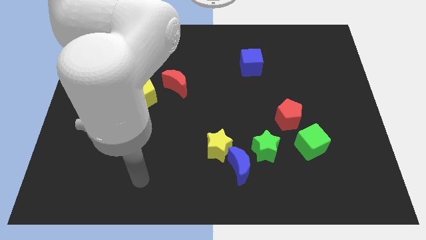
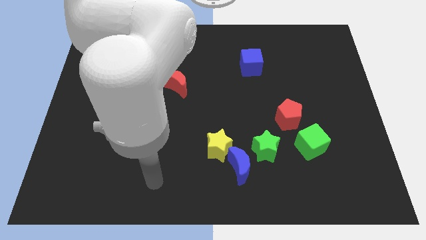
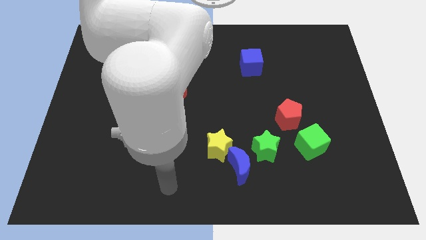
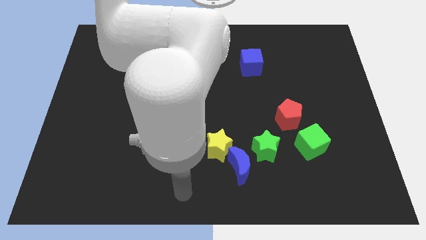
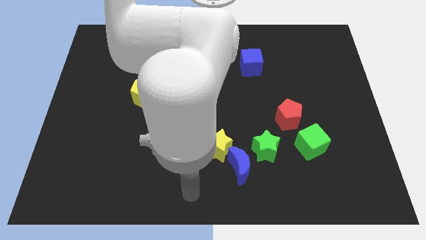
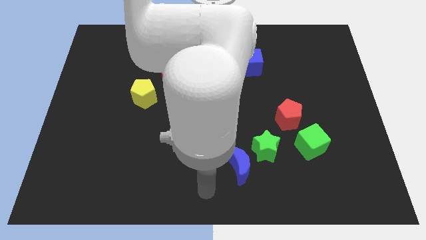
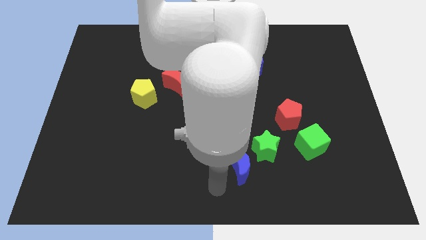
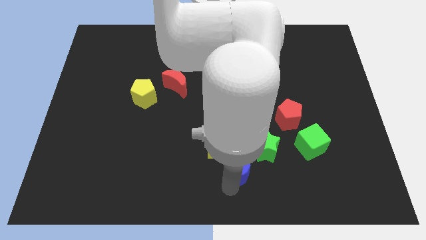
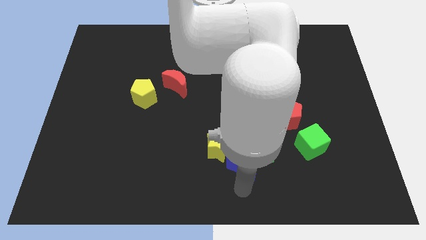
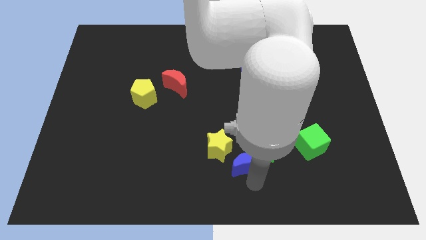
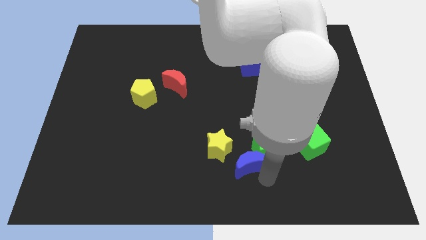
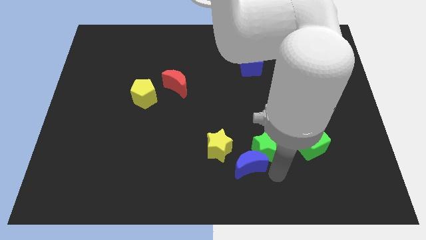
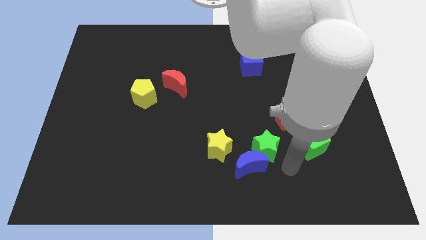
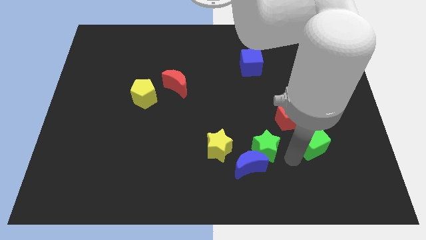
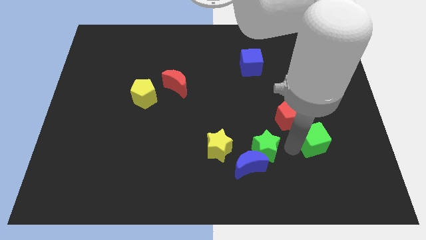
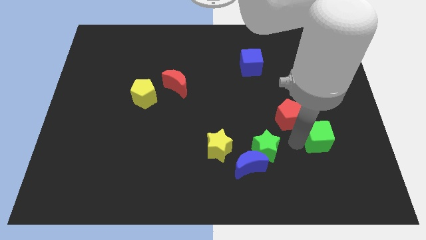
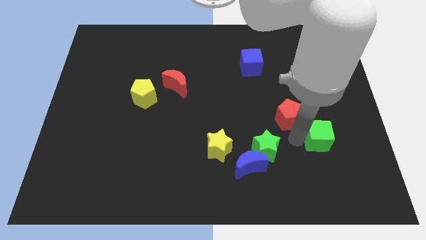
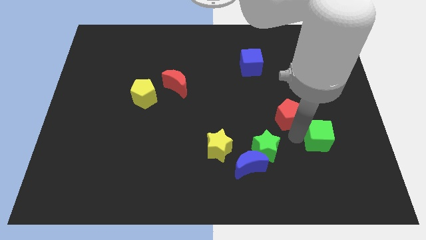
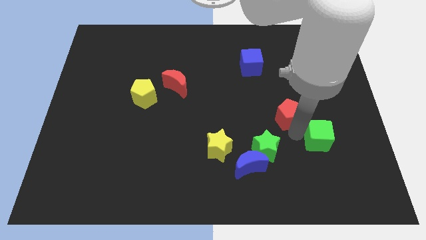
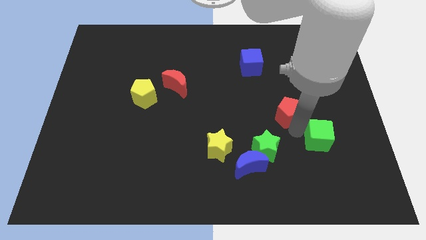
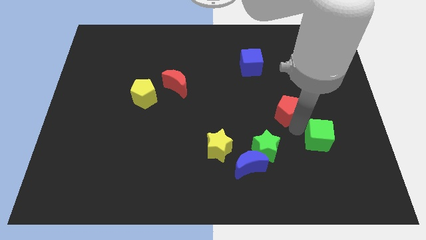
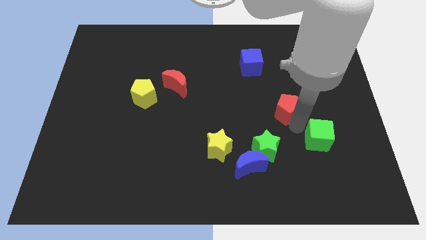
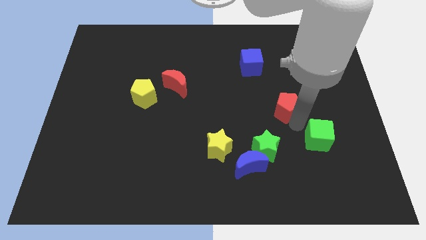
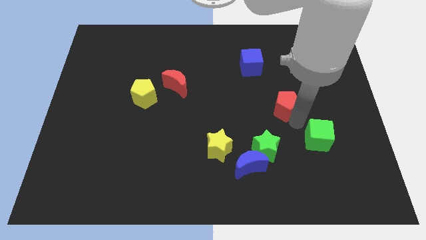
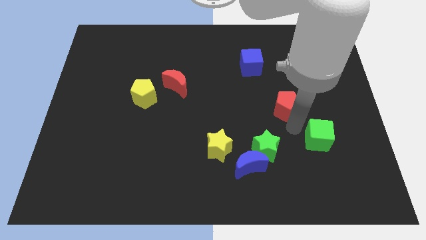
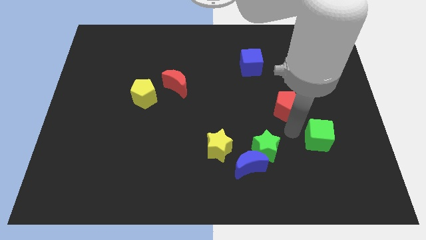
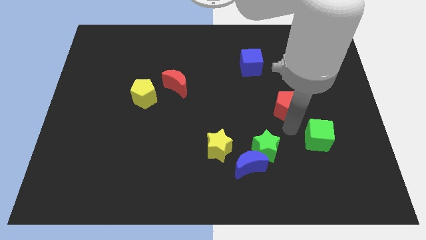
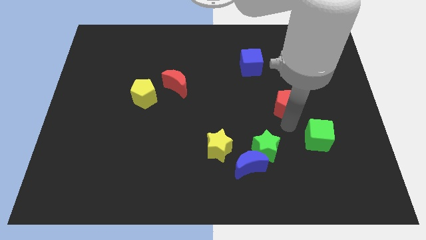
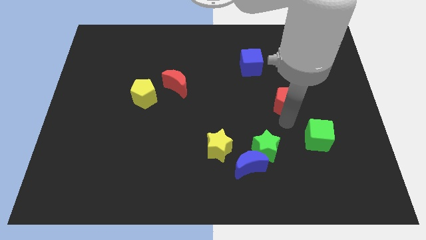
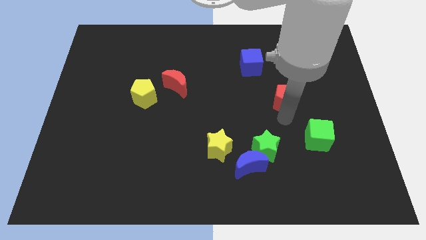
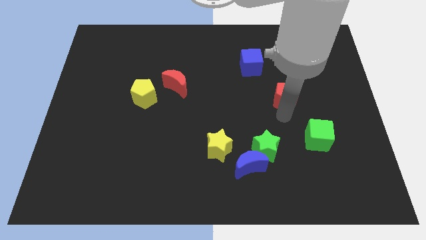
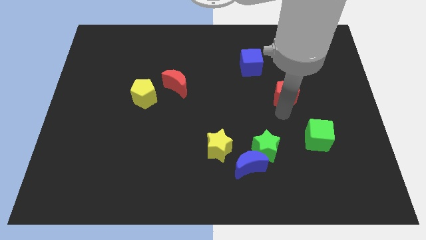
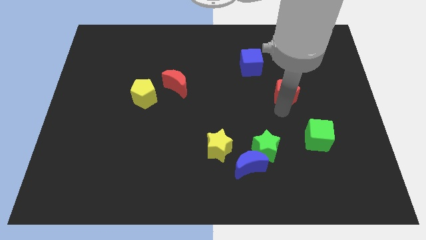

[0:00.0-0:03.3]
slightly slide the red pentagon upwards

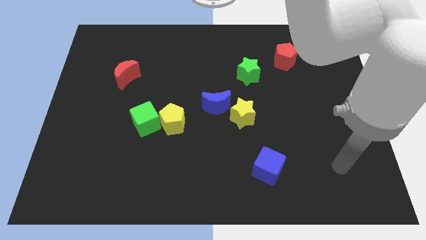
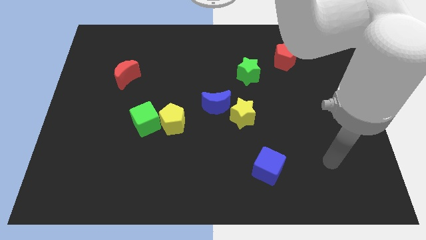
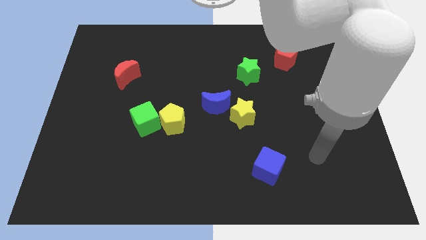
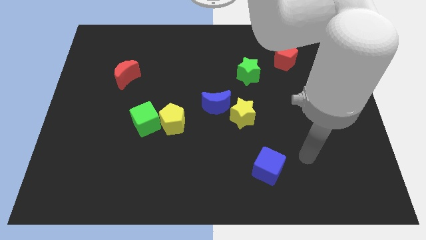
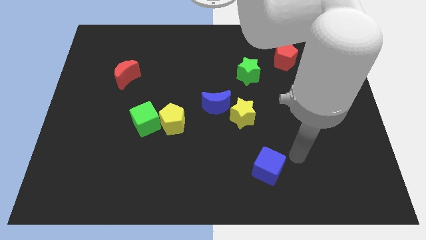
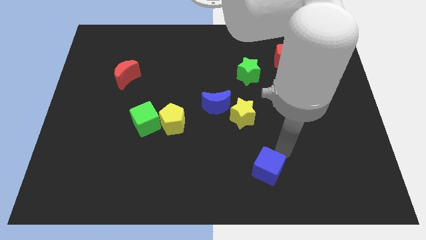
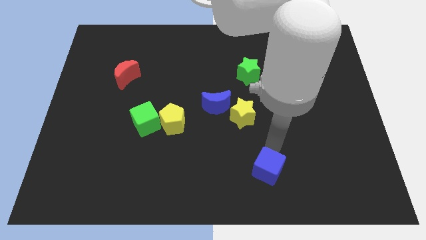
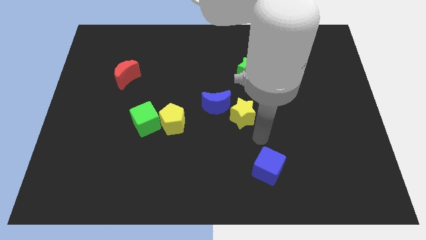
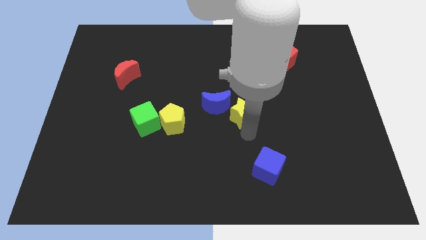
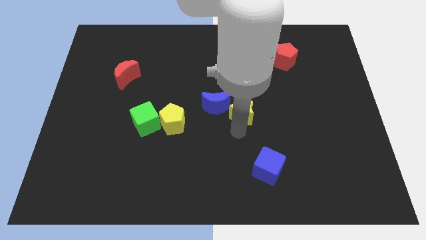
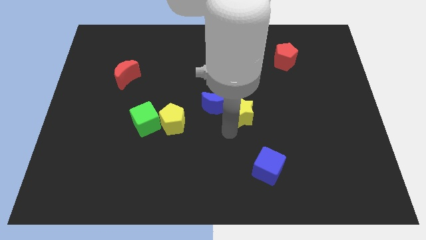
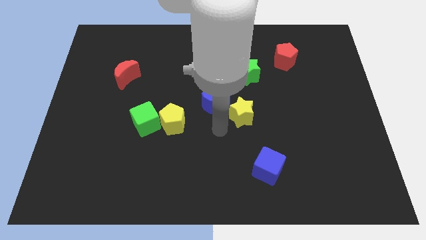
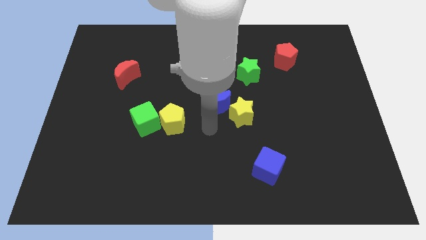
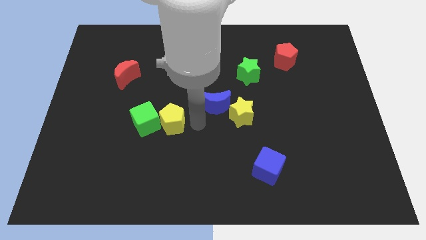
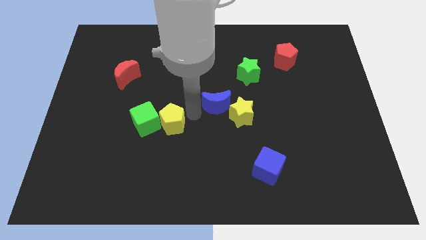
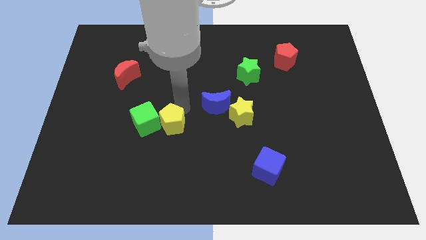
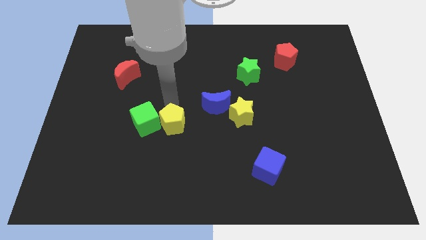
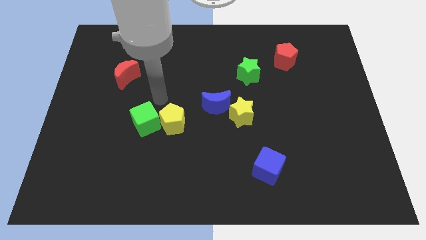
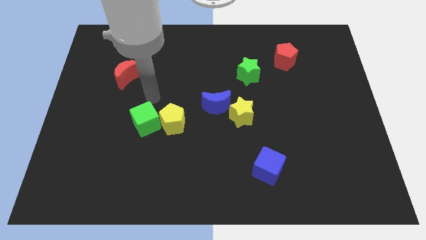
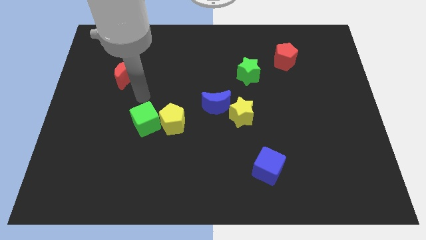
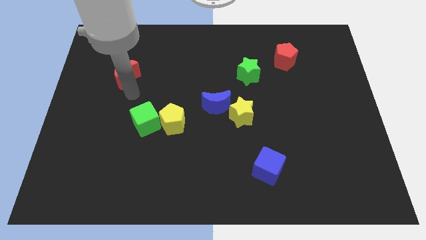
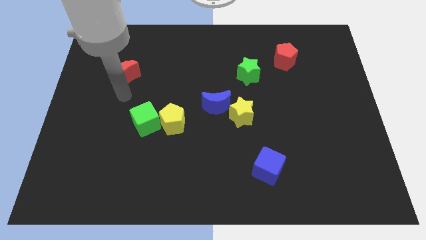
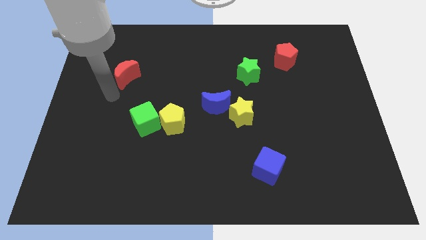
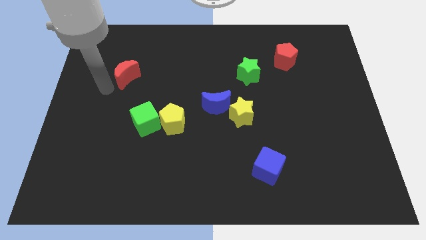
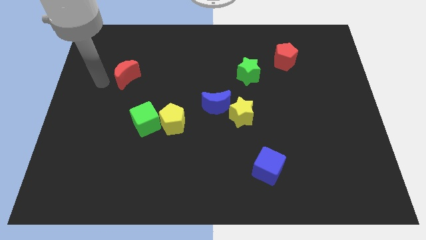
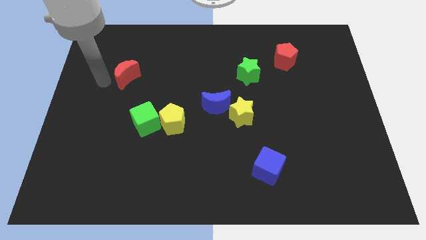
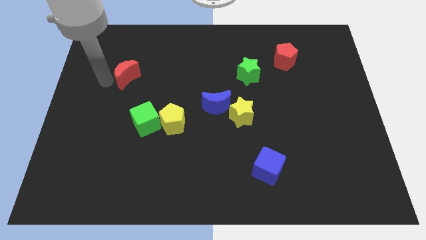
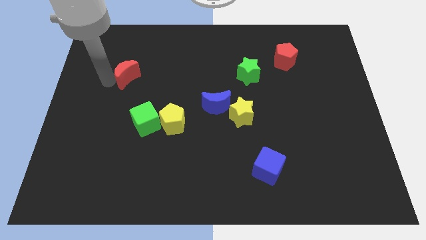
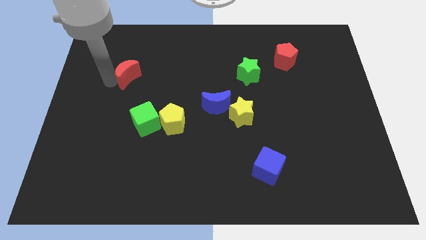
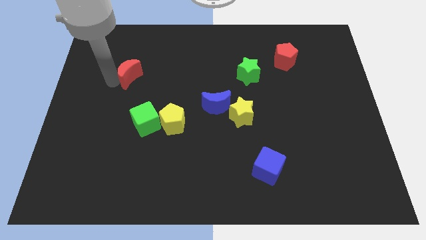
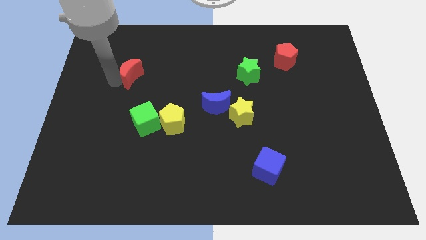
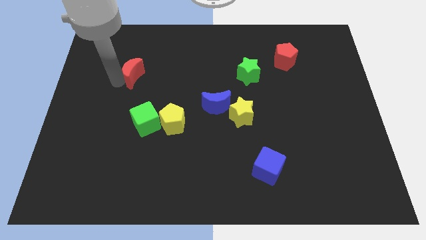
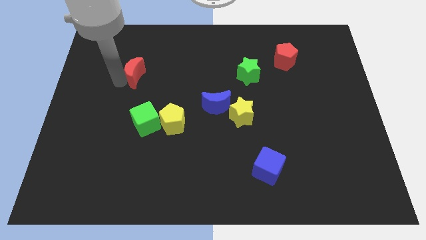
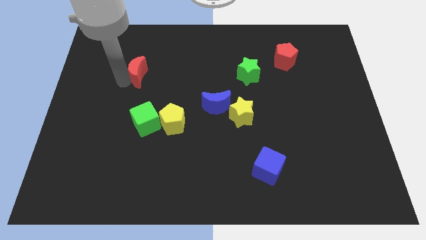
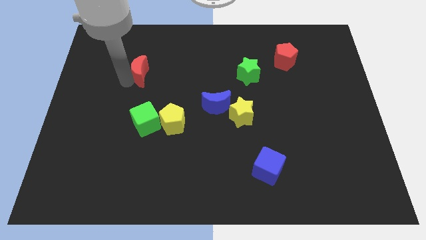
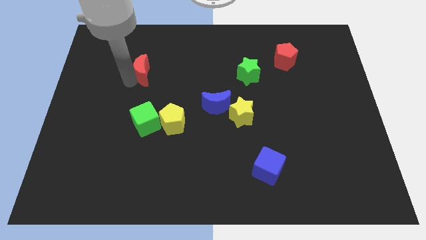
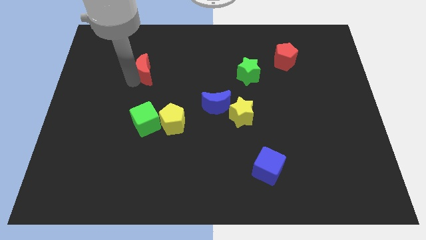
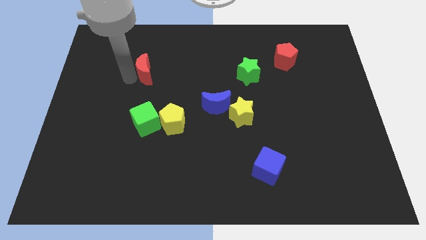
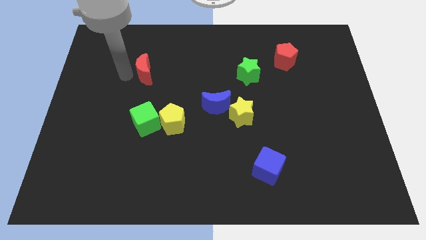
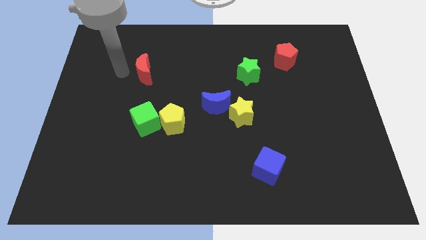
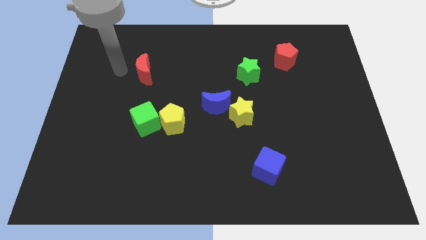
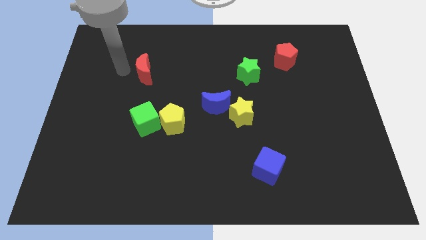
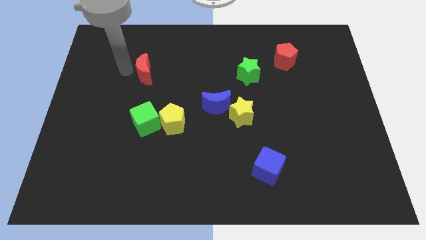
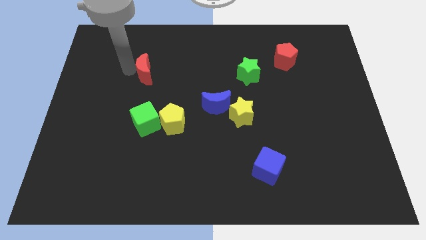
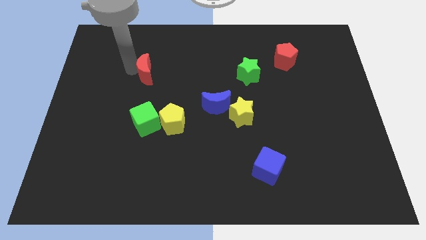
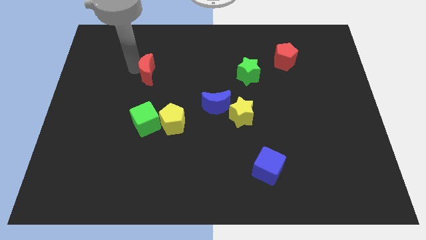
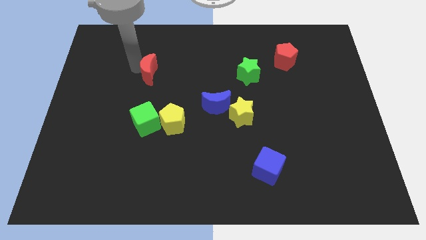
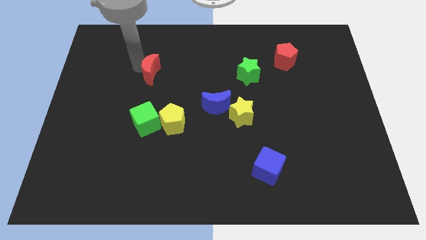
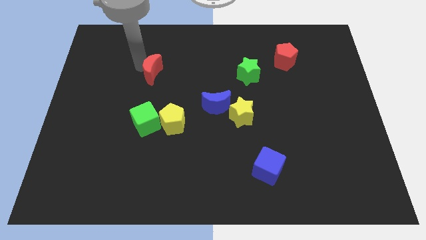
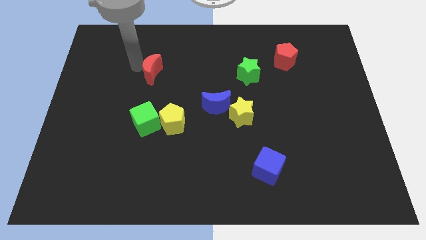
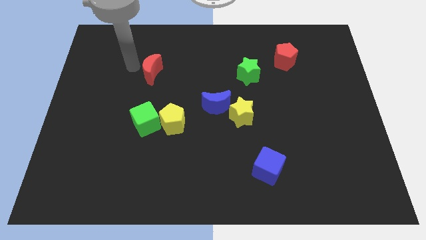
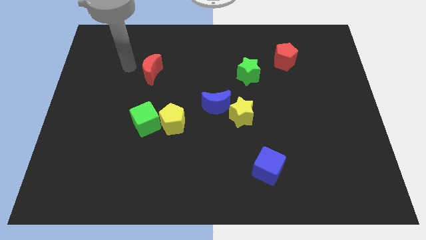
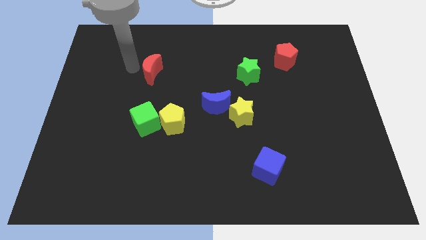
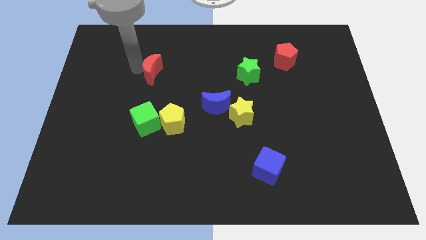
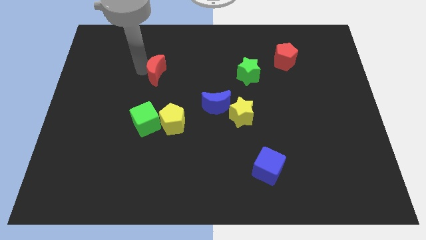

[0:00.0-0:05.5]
slightly move the red moon right
